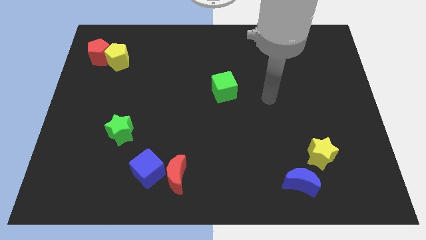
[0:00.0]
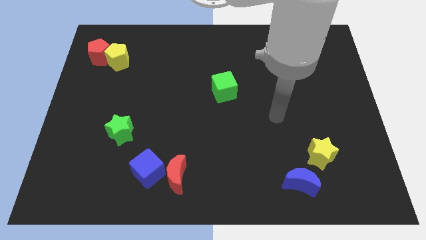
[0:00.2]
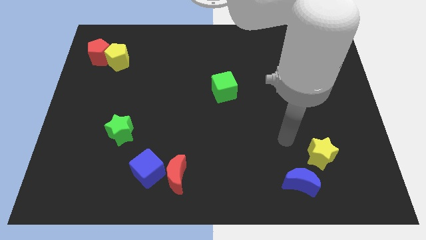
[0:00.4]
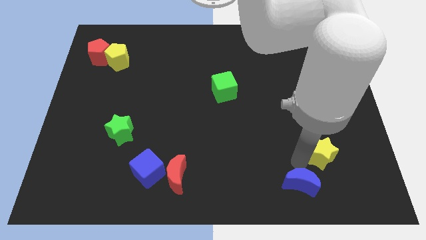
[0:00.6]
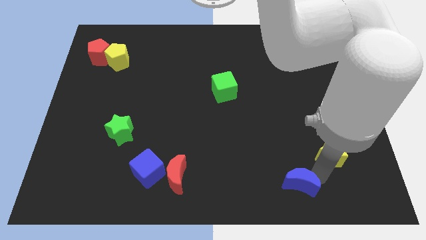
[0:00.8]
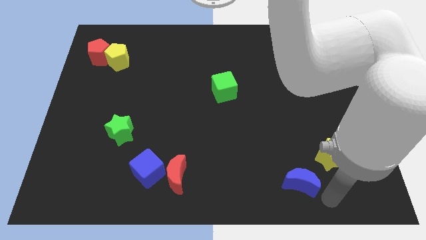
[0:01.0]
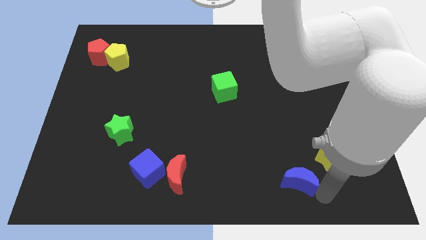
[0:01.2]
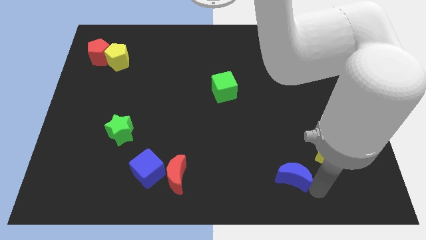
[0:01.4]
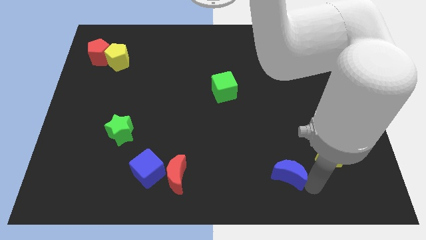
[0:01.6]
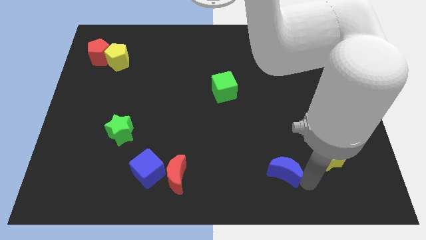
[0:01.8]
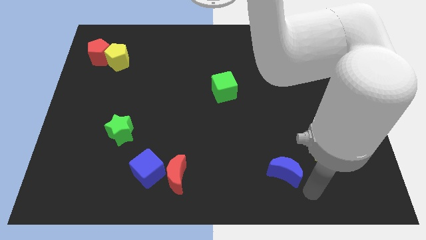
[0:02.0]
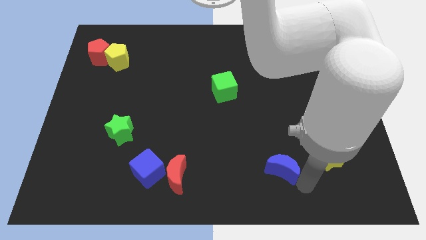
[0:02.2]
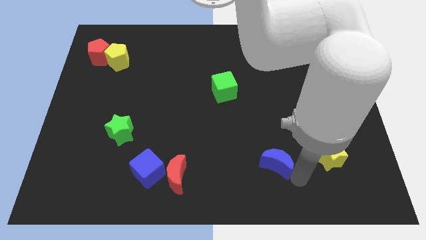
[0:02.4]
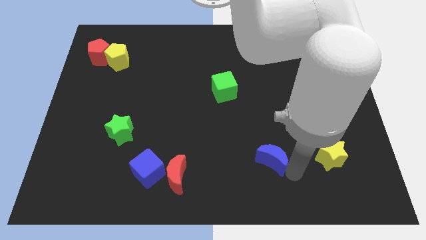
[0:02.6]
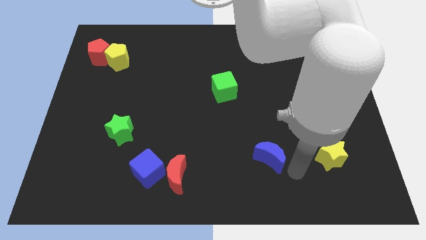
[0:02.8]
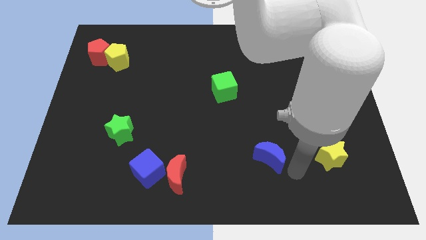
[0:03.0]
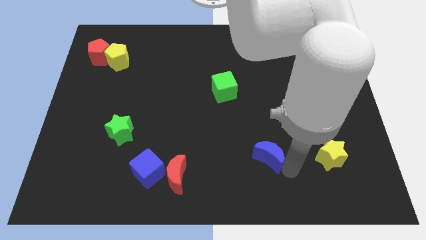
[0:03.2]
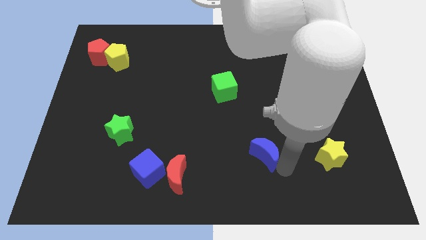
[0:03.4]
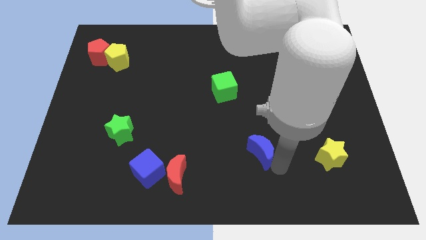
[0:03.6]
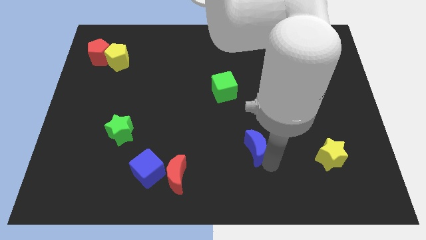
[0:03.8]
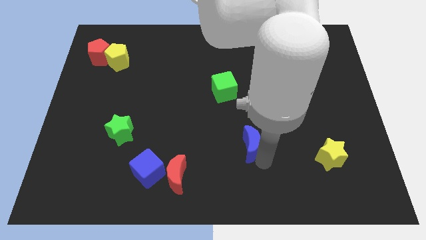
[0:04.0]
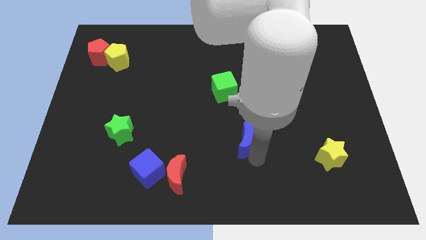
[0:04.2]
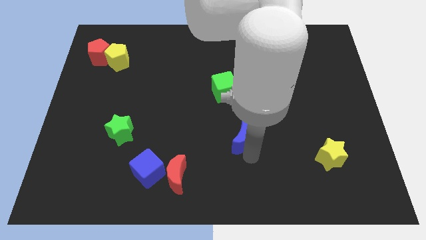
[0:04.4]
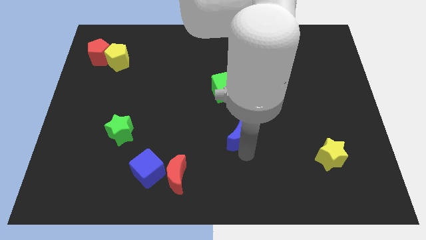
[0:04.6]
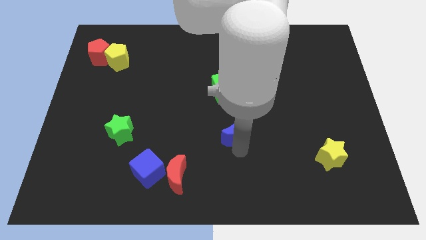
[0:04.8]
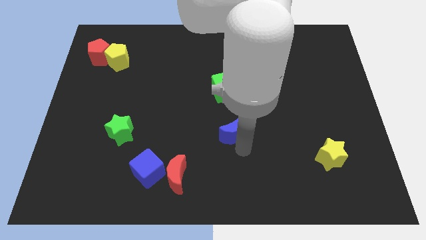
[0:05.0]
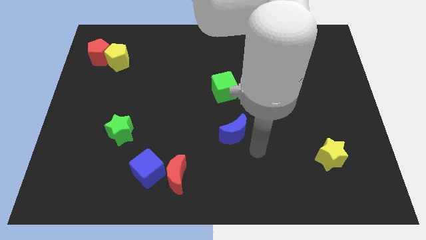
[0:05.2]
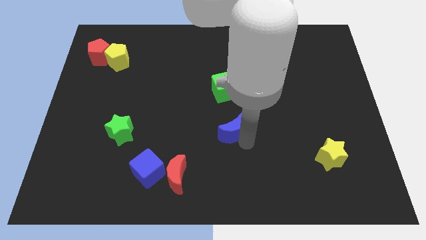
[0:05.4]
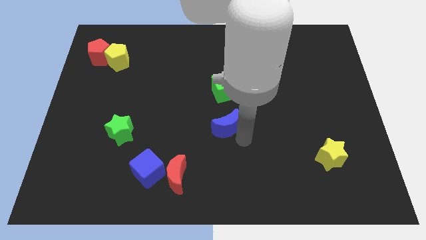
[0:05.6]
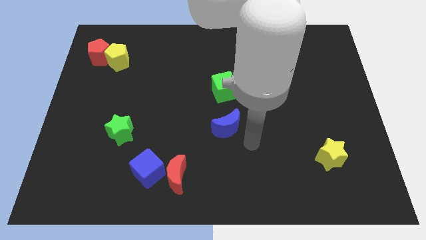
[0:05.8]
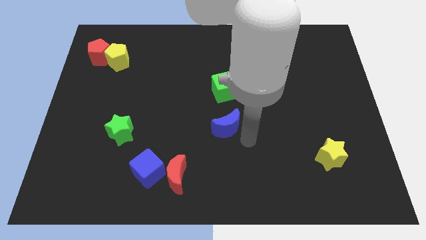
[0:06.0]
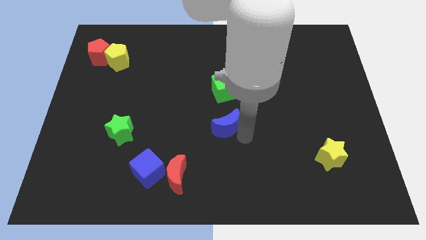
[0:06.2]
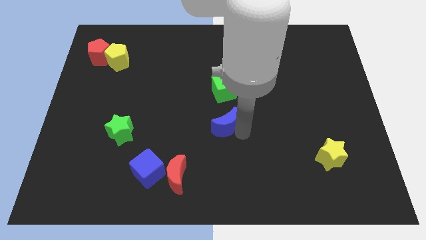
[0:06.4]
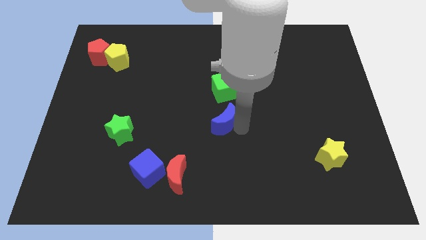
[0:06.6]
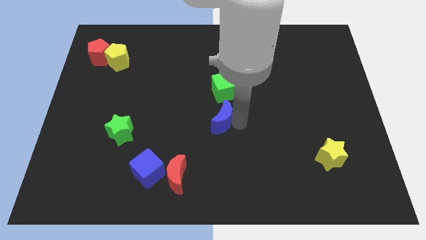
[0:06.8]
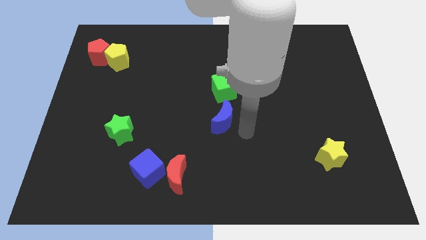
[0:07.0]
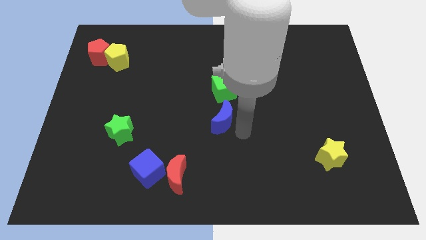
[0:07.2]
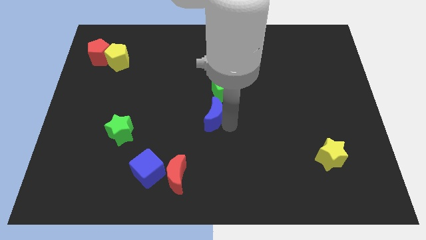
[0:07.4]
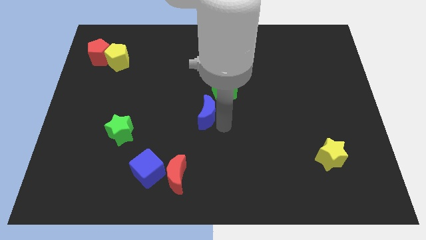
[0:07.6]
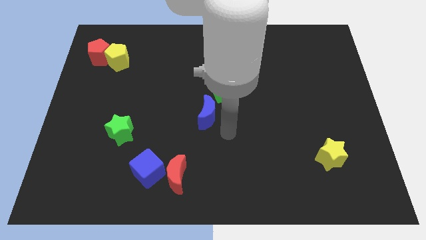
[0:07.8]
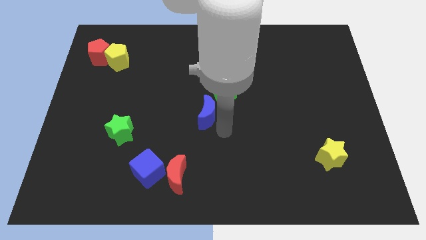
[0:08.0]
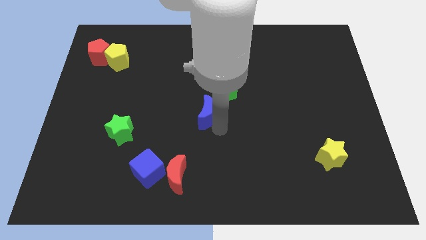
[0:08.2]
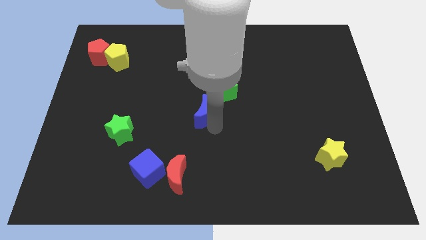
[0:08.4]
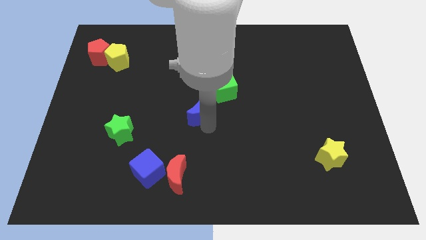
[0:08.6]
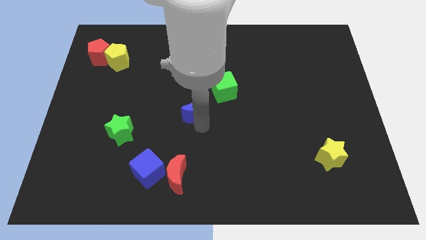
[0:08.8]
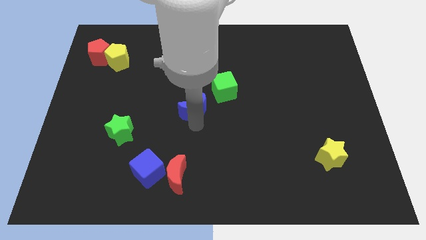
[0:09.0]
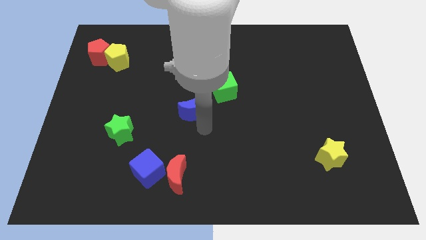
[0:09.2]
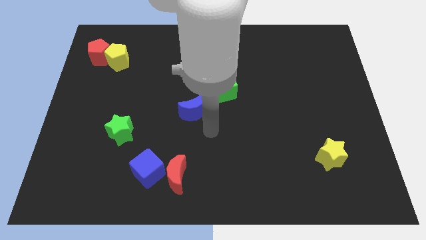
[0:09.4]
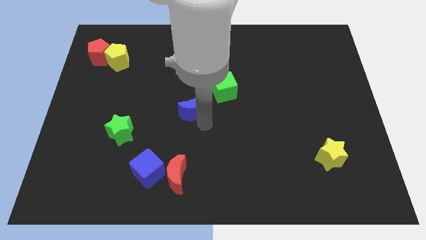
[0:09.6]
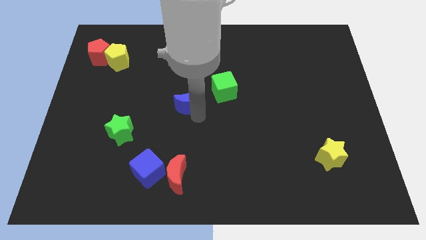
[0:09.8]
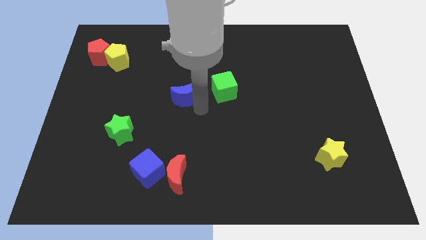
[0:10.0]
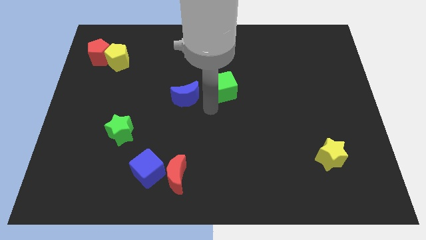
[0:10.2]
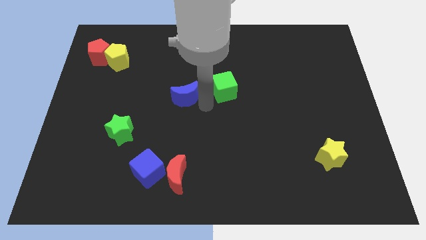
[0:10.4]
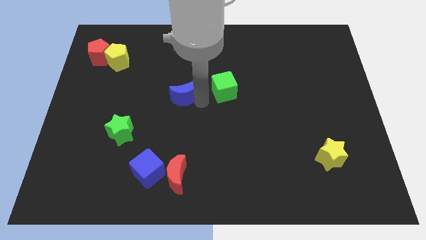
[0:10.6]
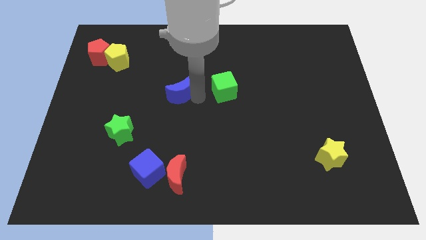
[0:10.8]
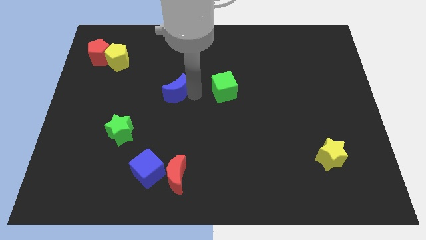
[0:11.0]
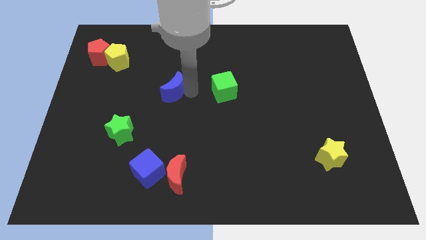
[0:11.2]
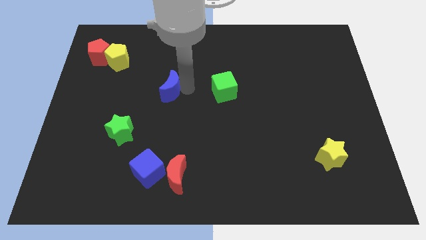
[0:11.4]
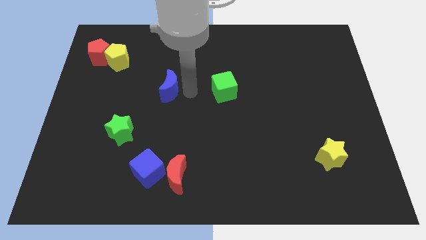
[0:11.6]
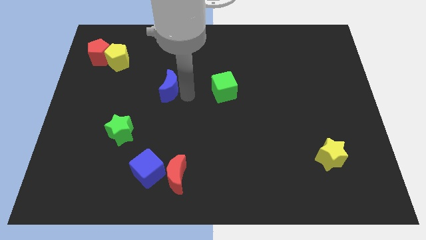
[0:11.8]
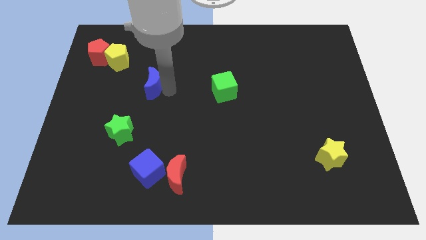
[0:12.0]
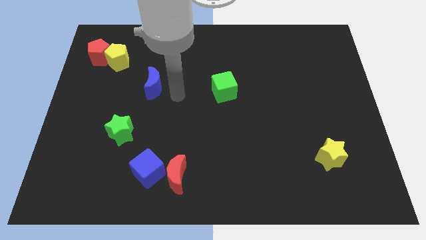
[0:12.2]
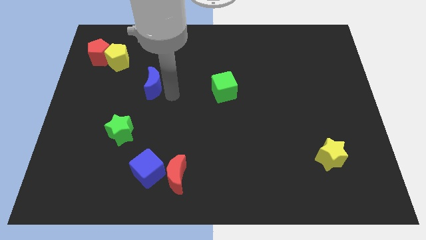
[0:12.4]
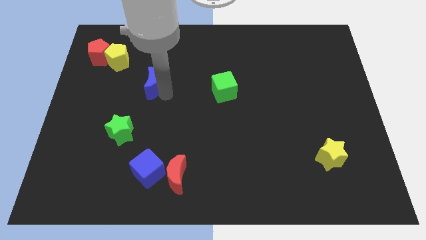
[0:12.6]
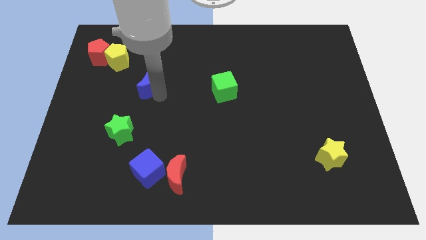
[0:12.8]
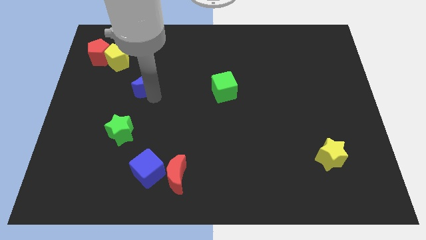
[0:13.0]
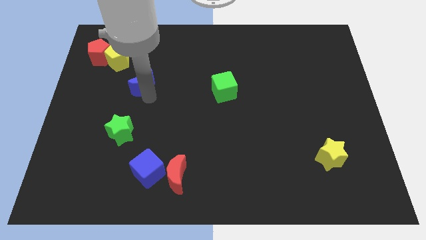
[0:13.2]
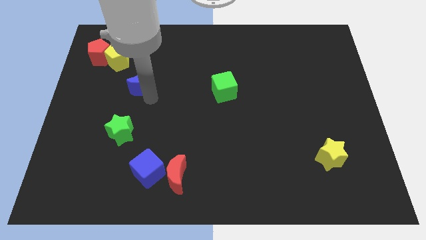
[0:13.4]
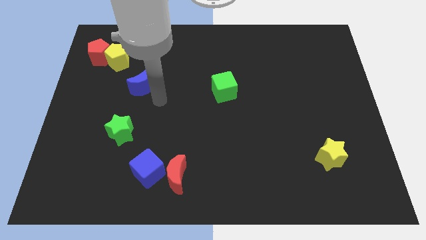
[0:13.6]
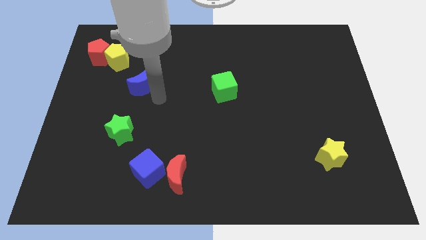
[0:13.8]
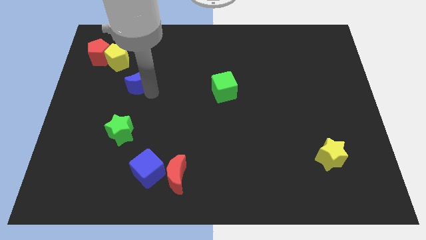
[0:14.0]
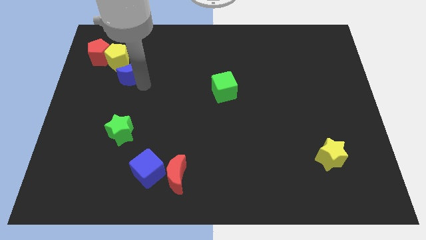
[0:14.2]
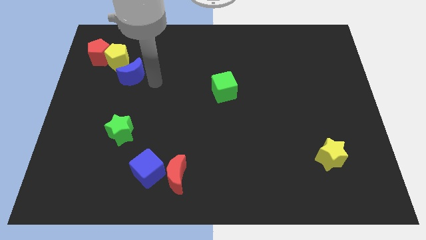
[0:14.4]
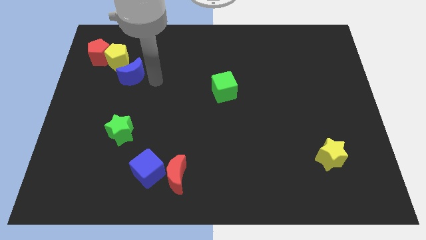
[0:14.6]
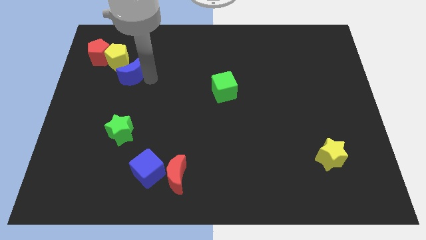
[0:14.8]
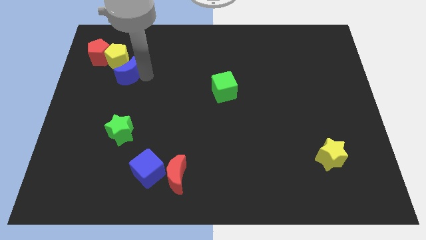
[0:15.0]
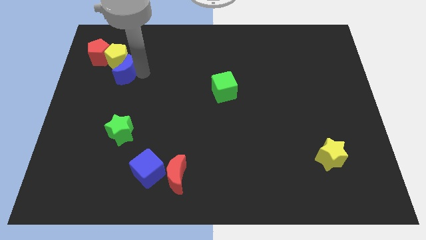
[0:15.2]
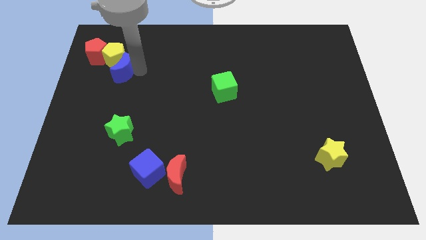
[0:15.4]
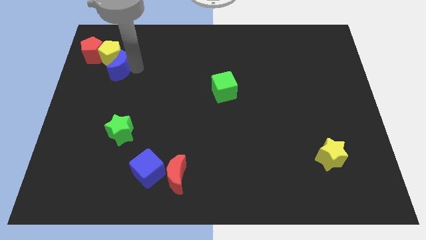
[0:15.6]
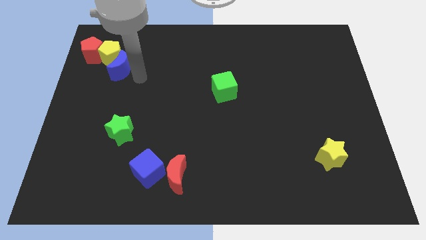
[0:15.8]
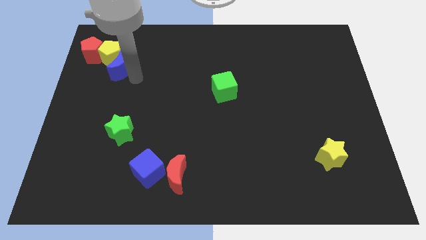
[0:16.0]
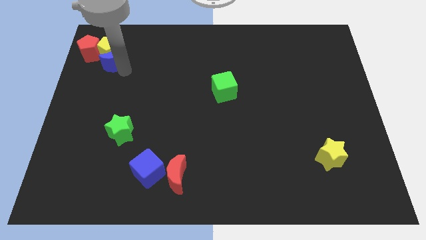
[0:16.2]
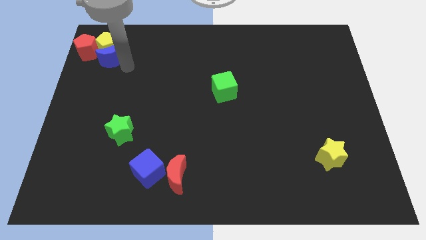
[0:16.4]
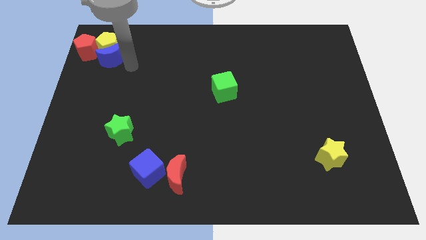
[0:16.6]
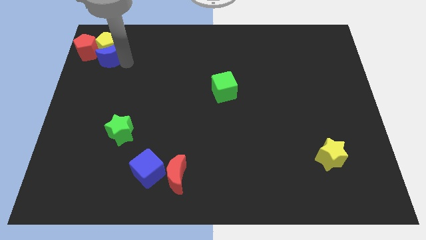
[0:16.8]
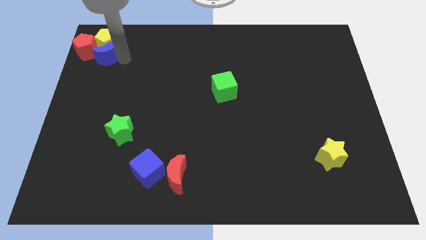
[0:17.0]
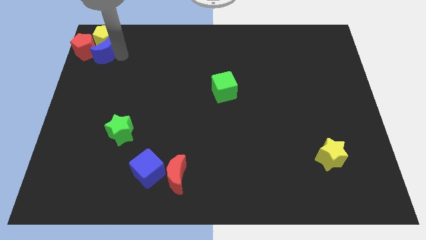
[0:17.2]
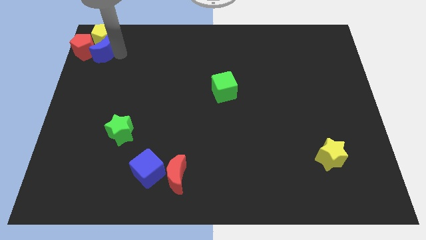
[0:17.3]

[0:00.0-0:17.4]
move the blue moon towards the red pentagon
